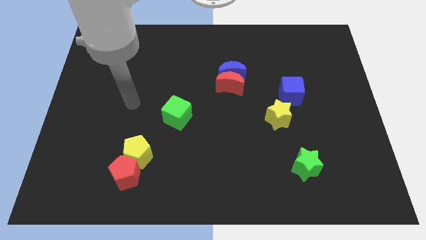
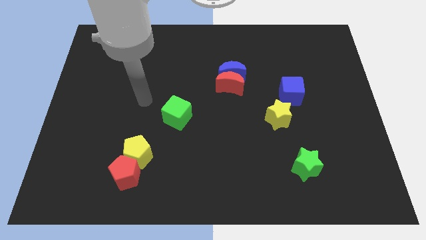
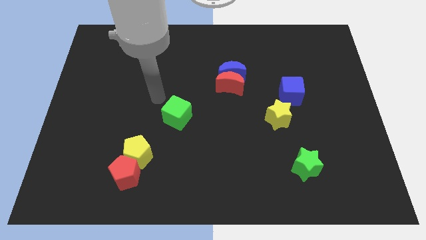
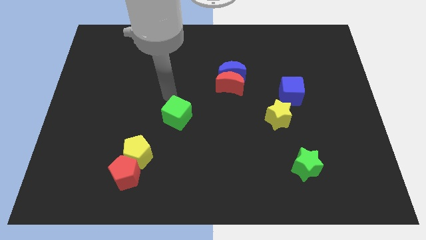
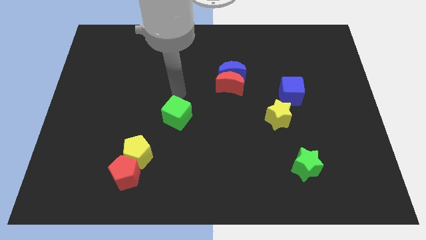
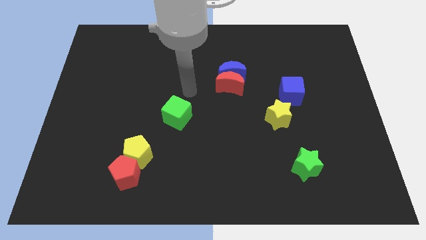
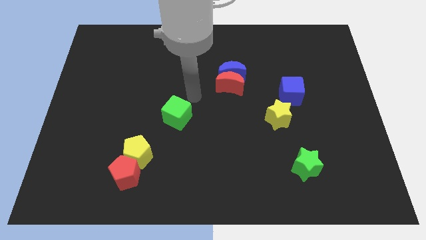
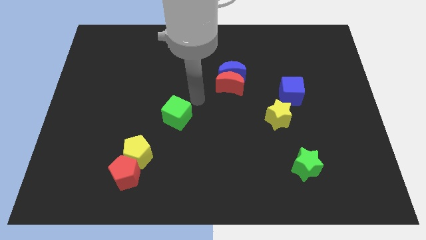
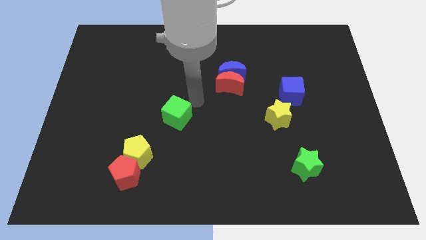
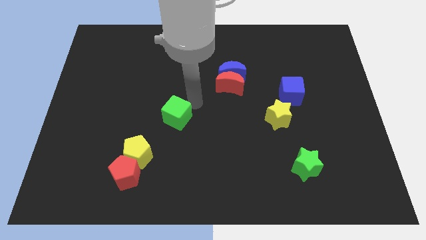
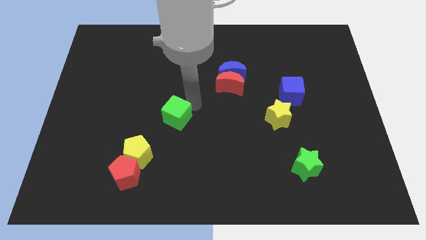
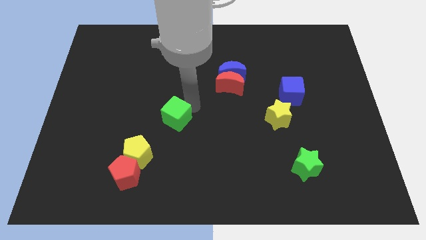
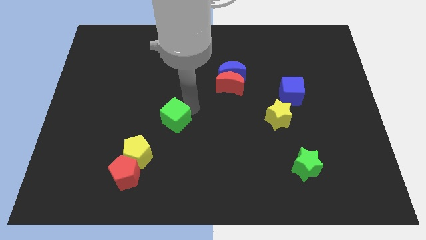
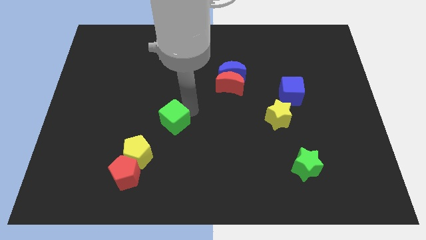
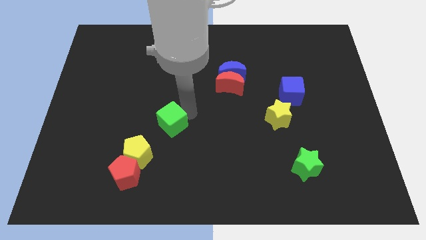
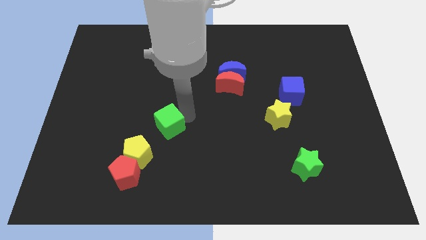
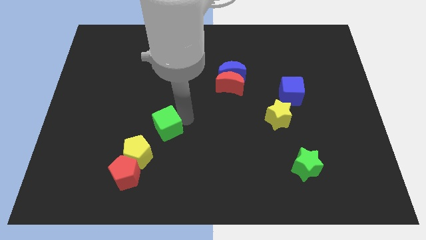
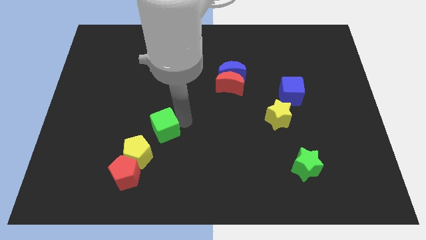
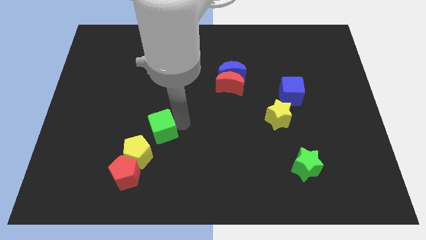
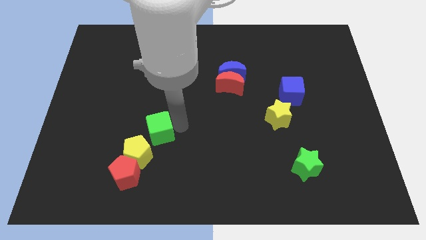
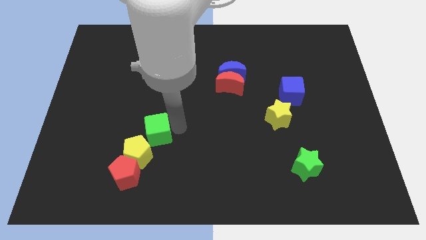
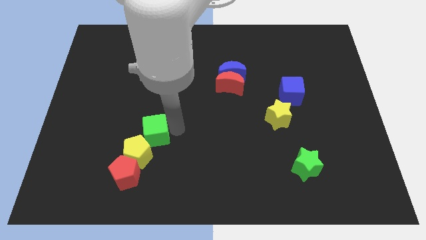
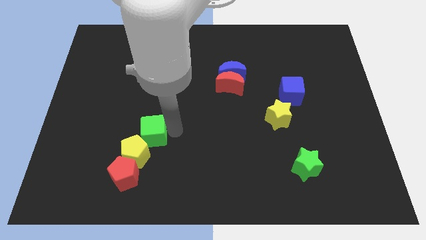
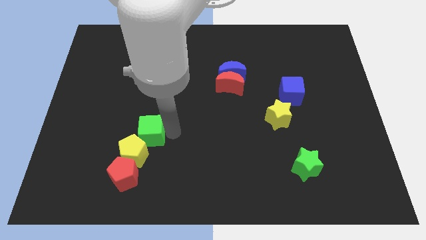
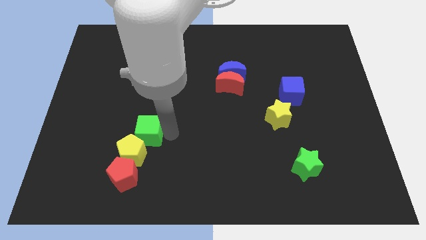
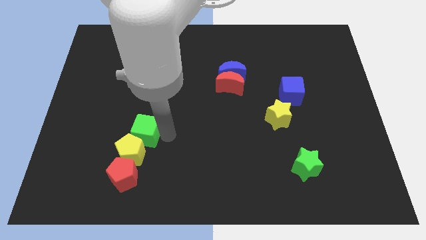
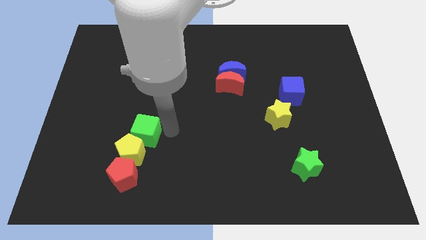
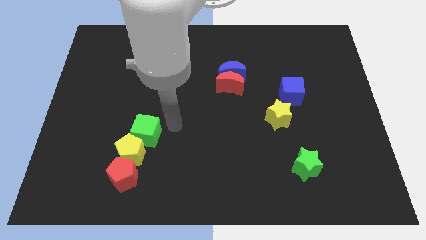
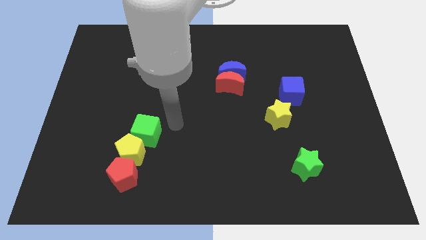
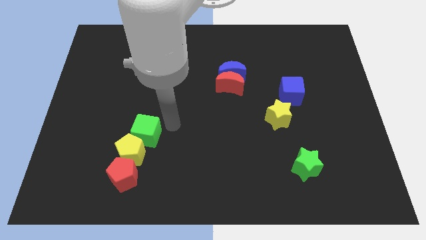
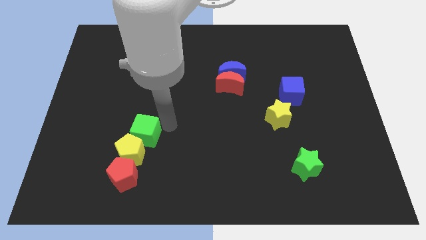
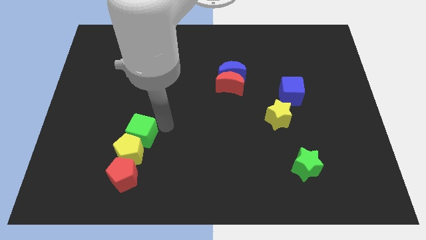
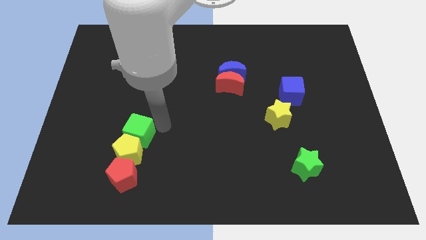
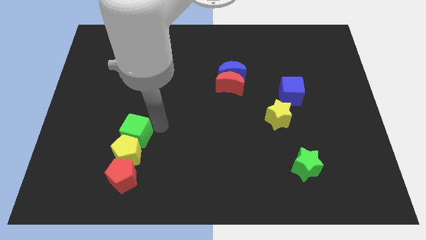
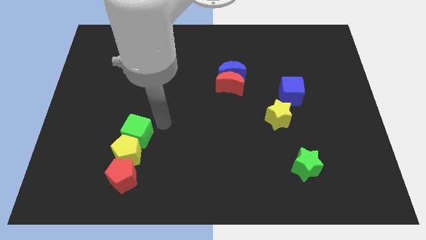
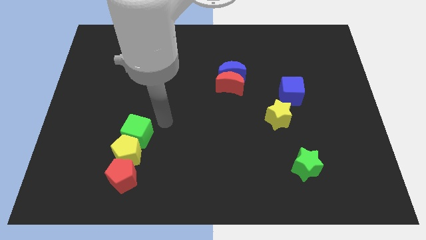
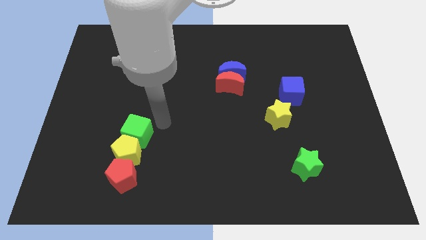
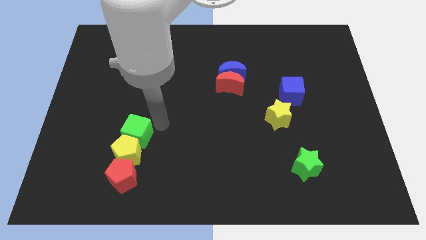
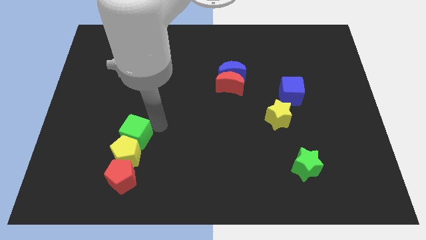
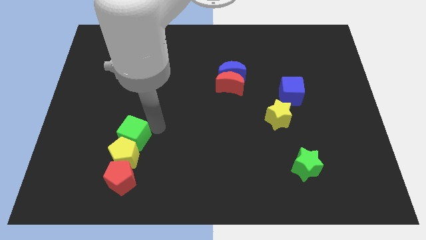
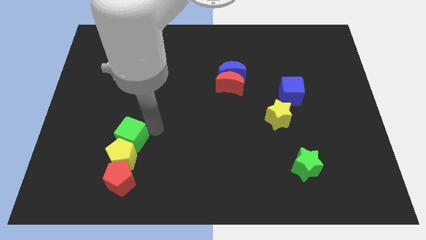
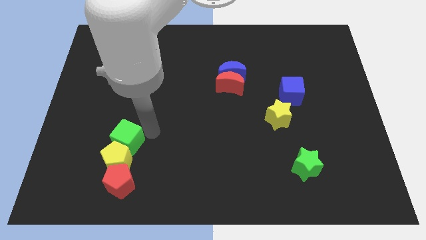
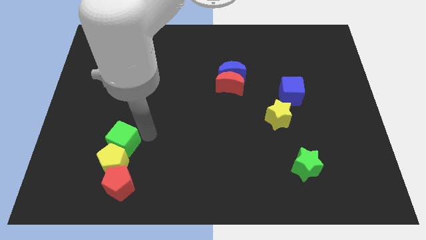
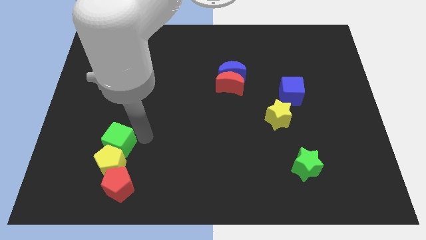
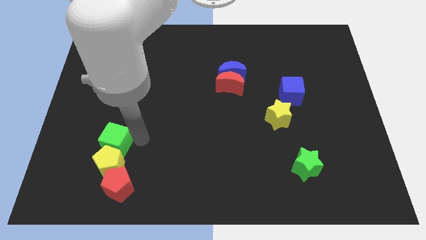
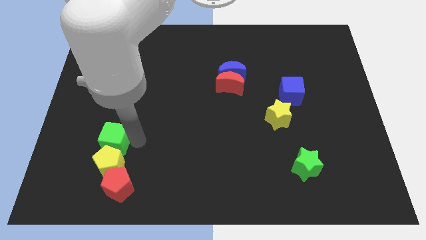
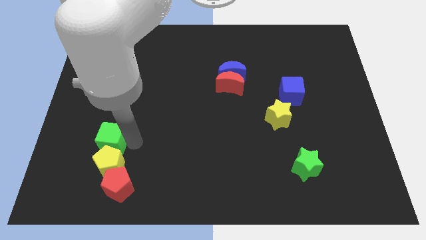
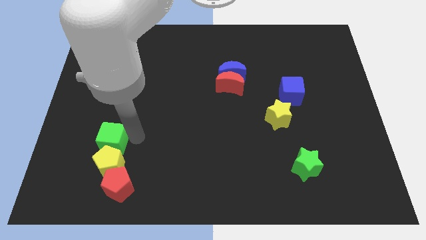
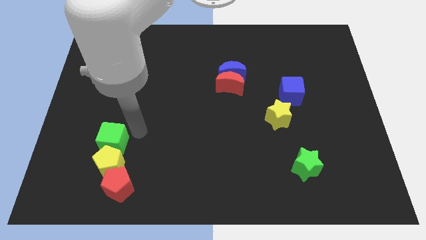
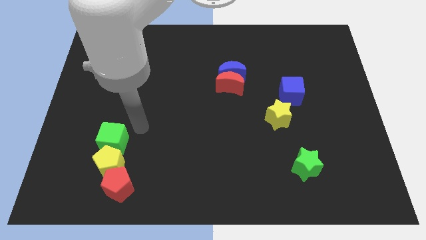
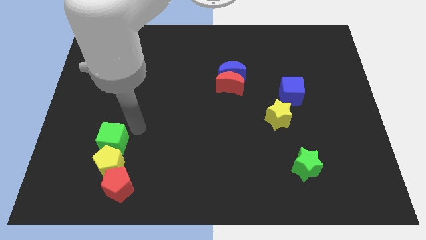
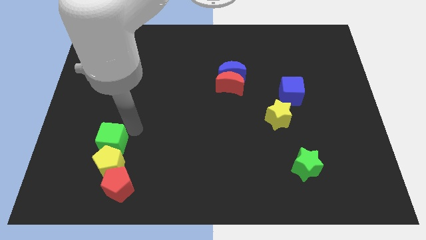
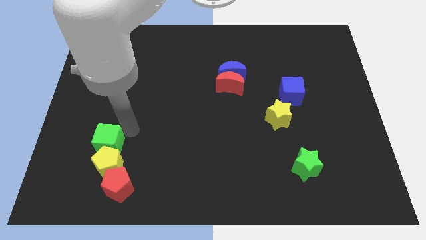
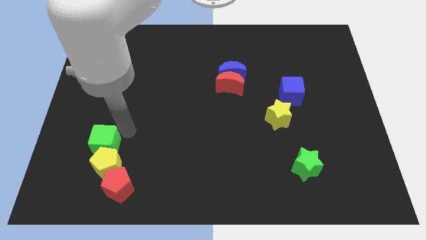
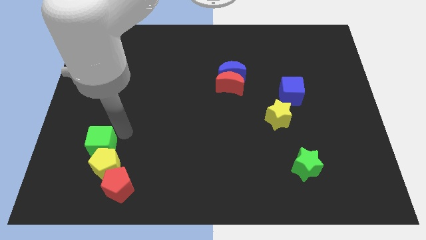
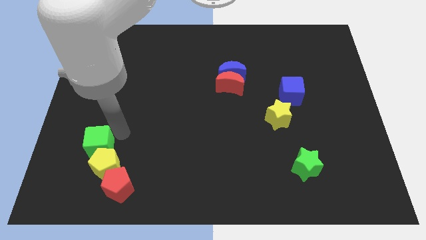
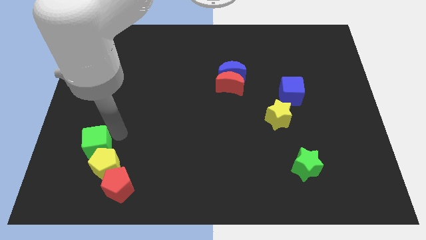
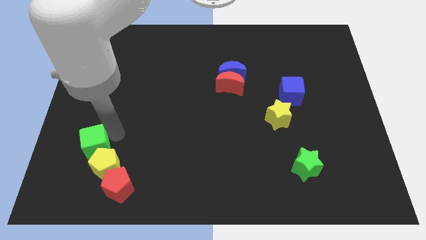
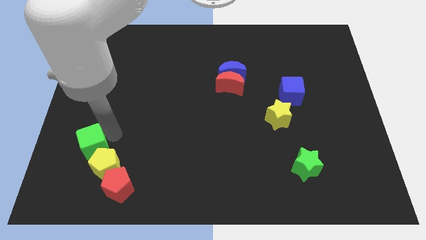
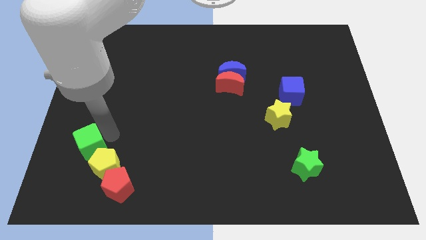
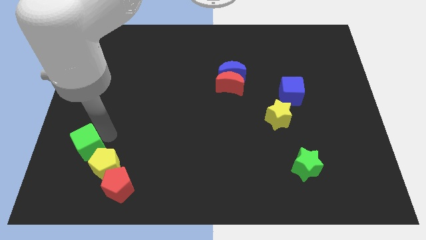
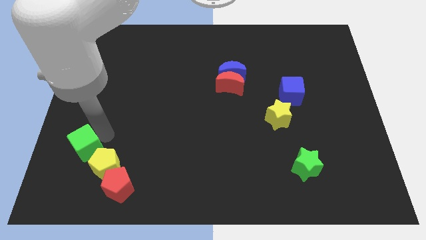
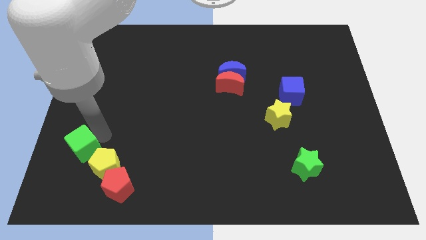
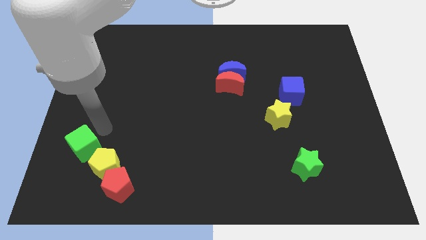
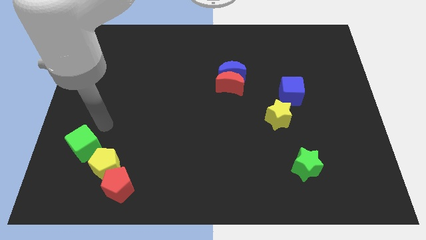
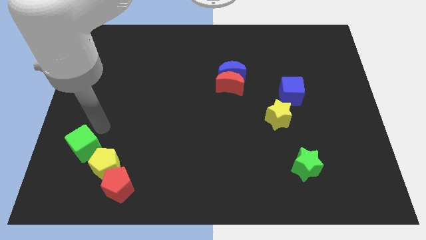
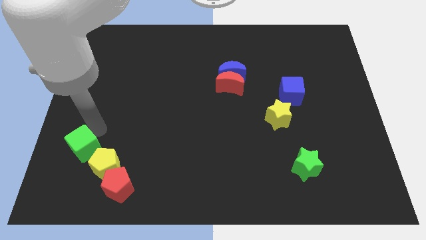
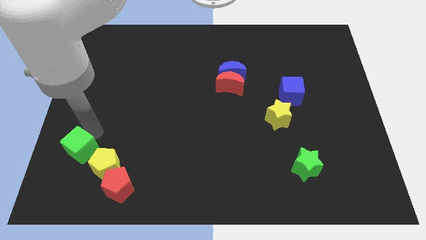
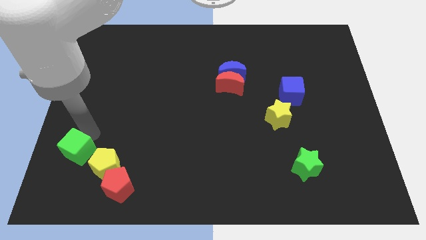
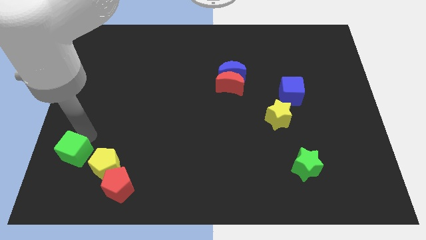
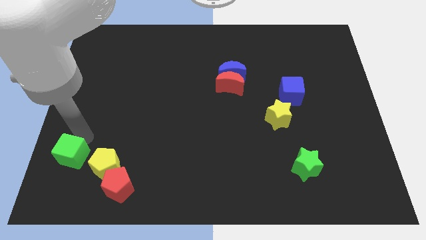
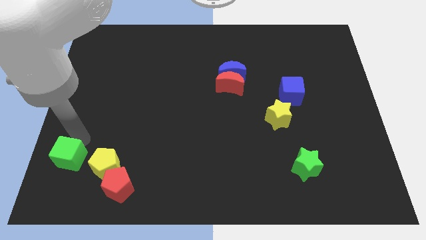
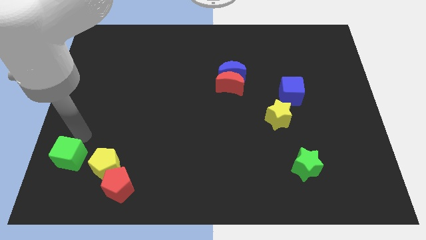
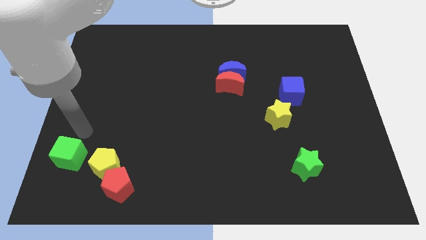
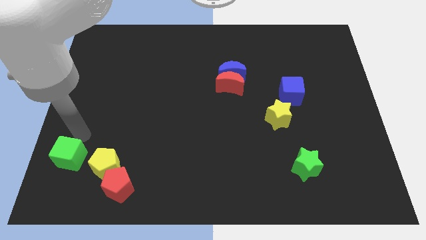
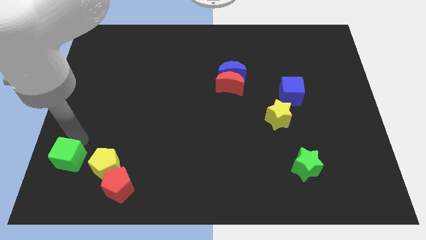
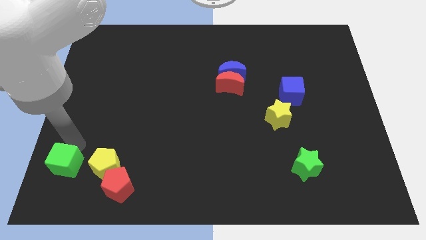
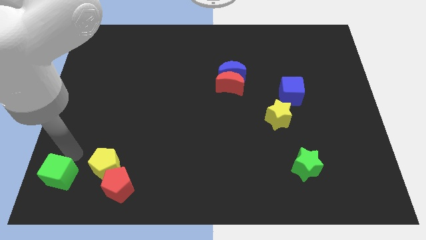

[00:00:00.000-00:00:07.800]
slide the green cube to the bottom left of the board
